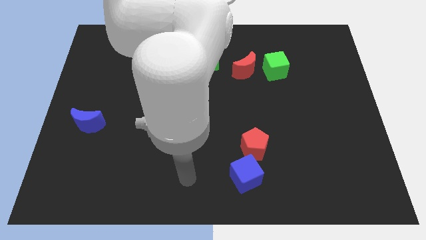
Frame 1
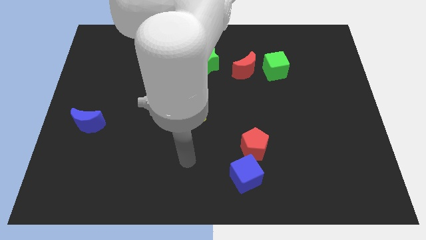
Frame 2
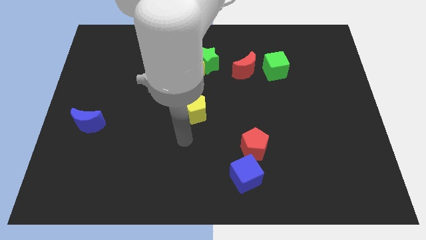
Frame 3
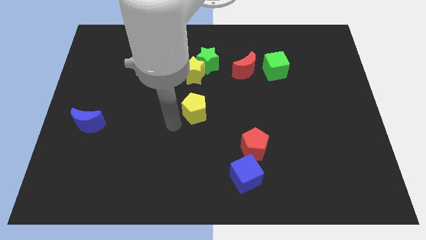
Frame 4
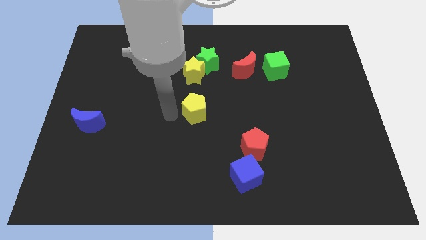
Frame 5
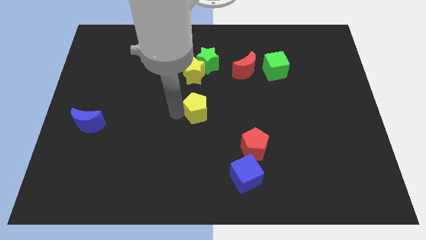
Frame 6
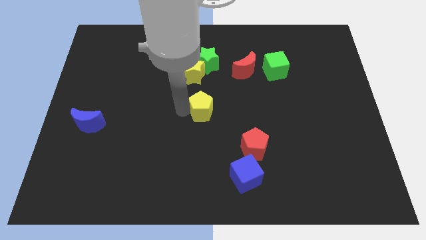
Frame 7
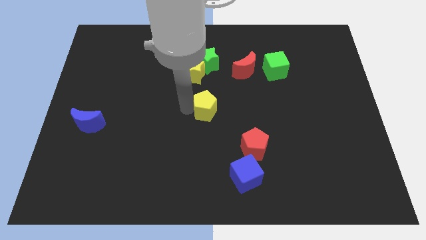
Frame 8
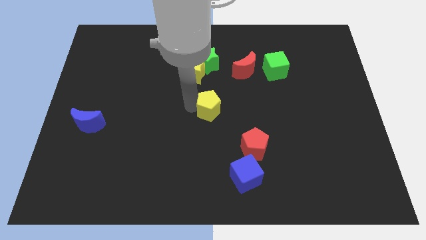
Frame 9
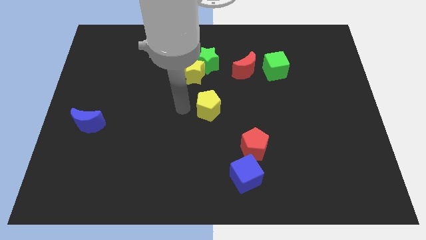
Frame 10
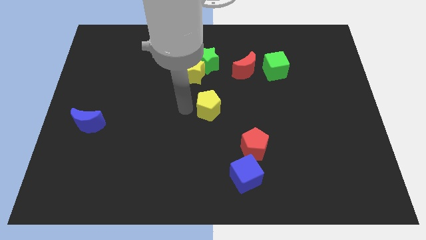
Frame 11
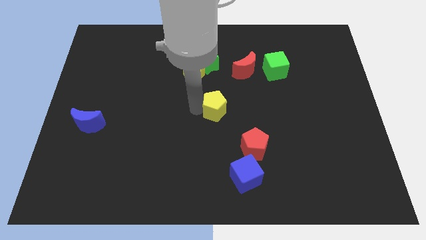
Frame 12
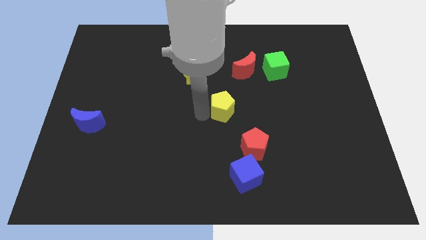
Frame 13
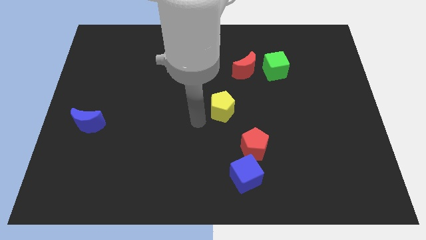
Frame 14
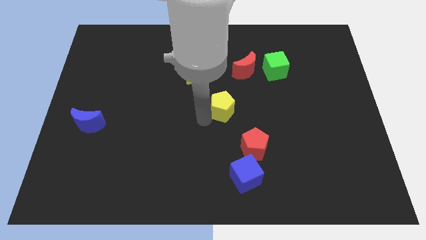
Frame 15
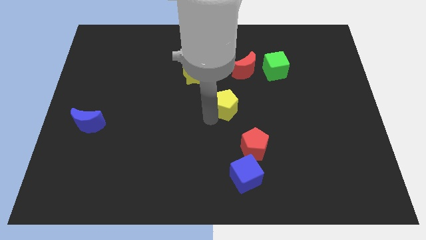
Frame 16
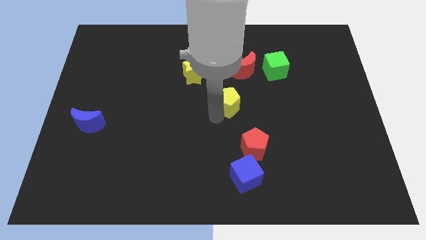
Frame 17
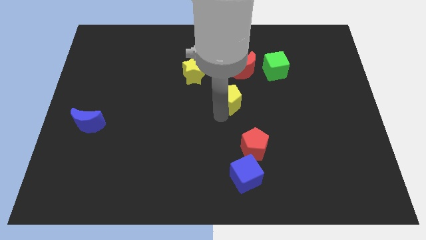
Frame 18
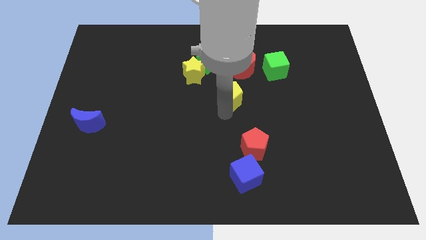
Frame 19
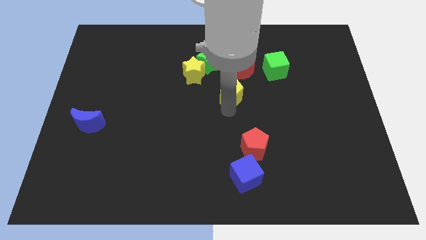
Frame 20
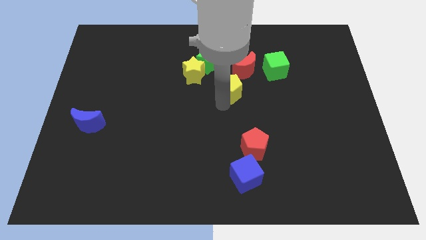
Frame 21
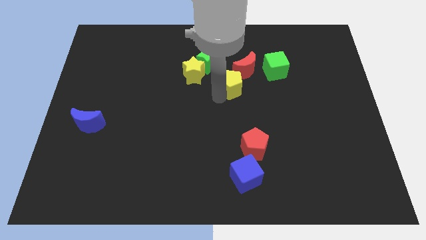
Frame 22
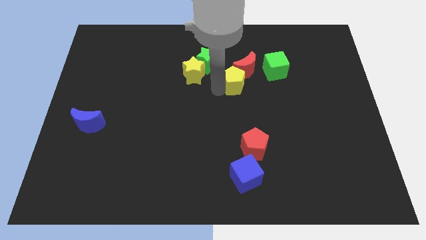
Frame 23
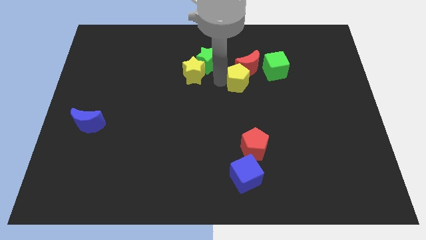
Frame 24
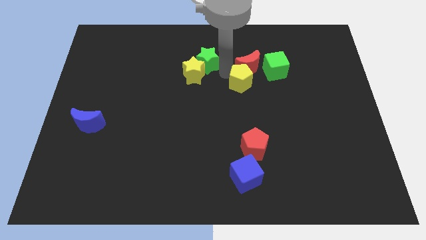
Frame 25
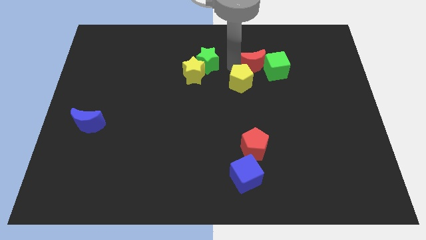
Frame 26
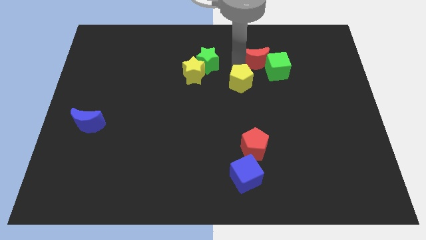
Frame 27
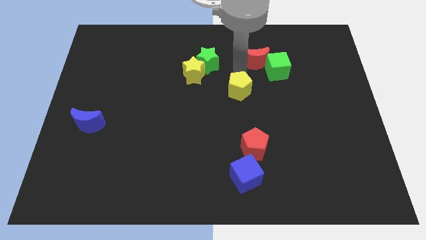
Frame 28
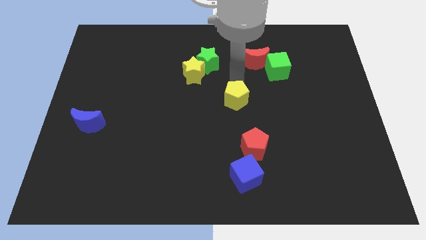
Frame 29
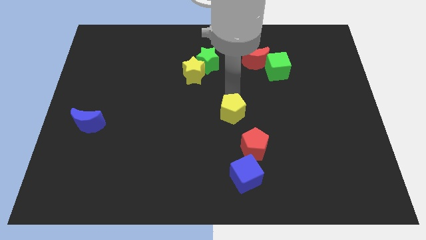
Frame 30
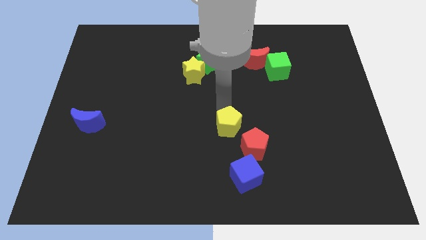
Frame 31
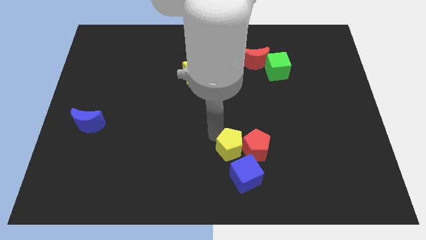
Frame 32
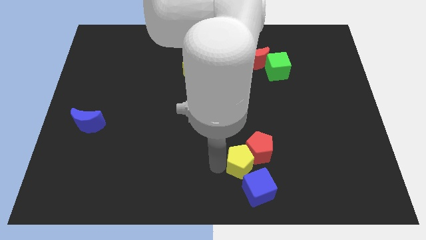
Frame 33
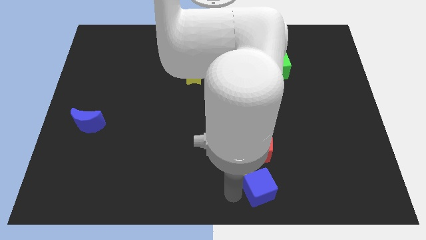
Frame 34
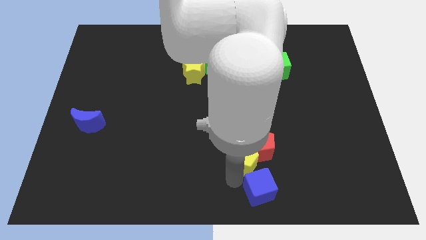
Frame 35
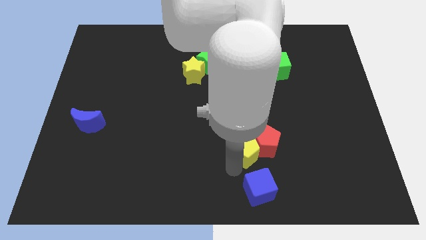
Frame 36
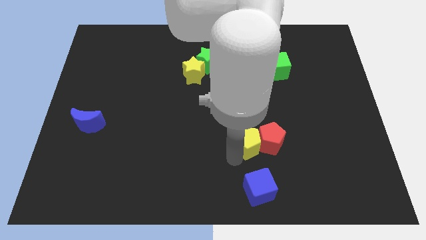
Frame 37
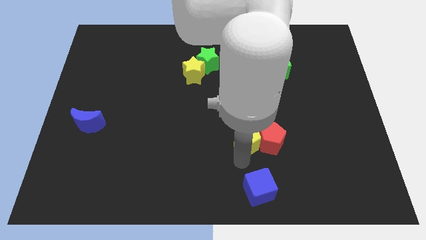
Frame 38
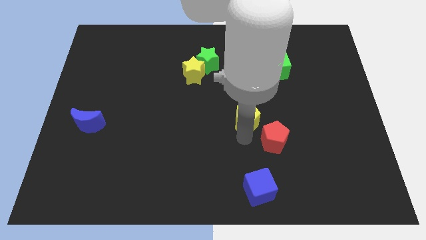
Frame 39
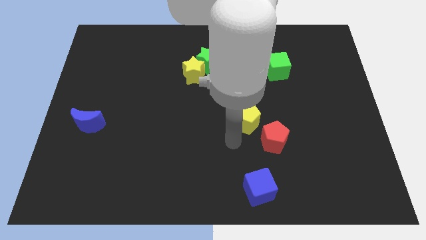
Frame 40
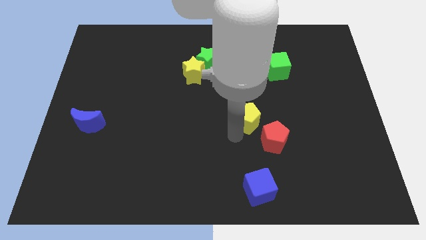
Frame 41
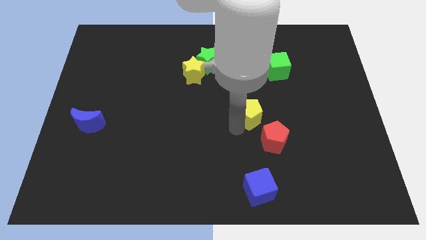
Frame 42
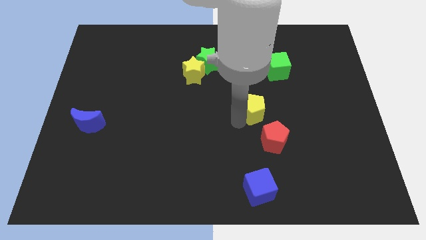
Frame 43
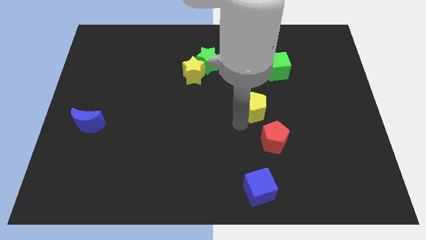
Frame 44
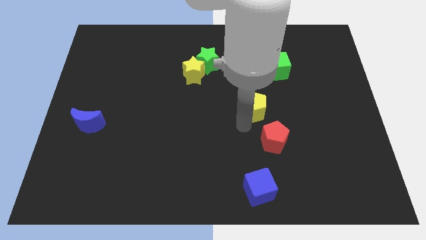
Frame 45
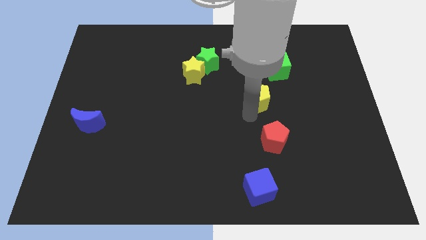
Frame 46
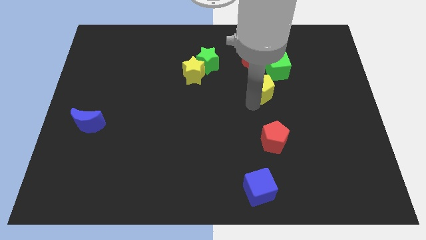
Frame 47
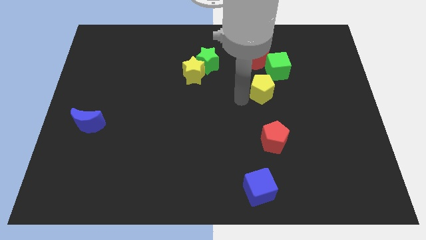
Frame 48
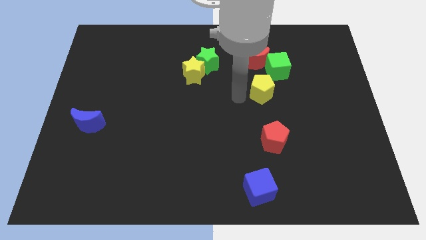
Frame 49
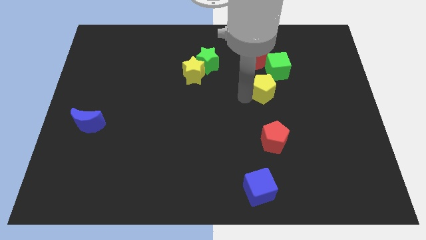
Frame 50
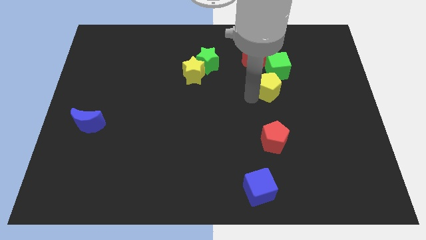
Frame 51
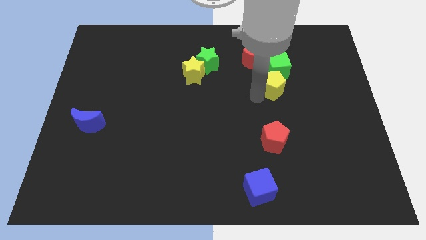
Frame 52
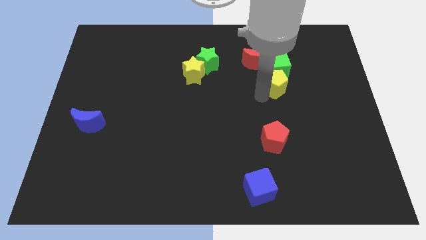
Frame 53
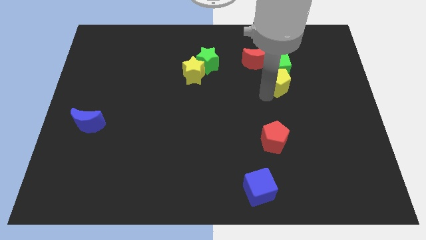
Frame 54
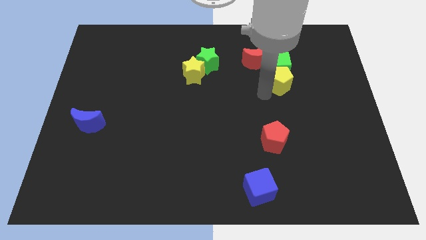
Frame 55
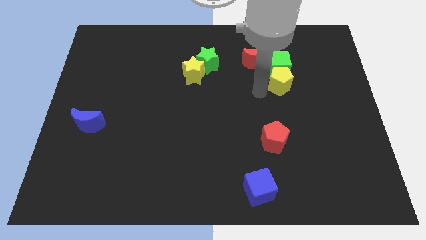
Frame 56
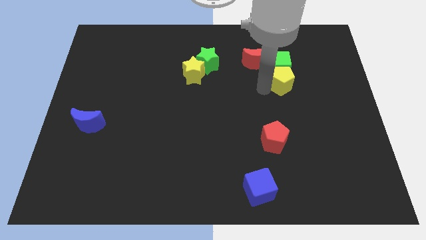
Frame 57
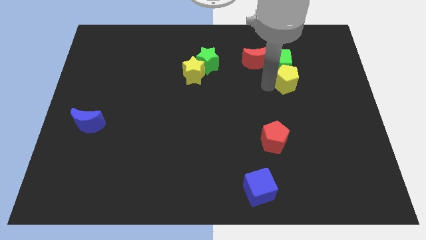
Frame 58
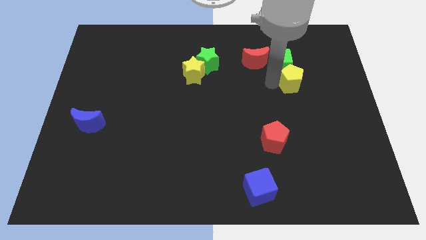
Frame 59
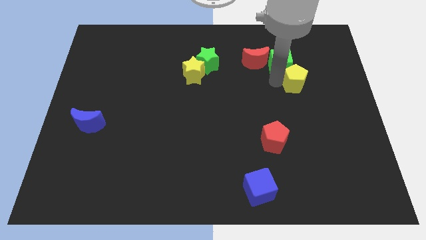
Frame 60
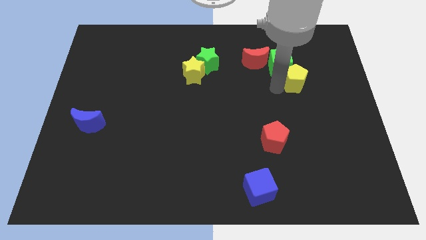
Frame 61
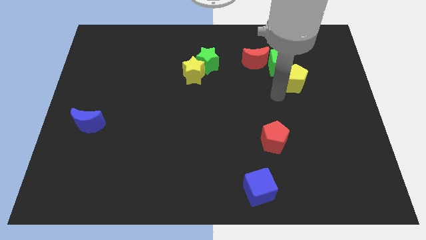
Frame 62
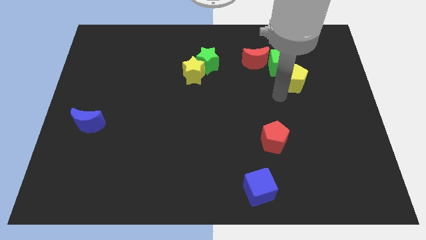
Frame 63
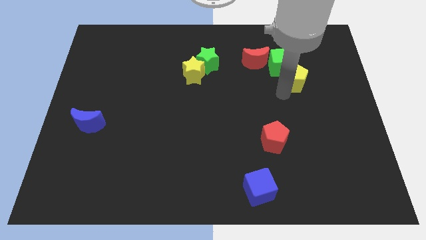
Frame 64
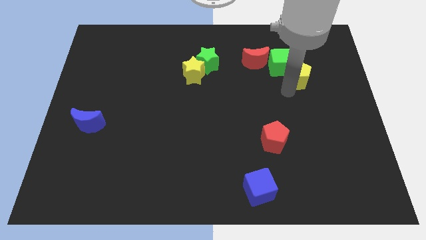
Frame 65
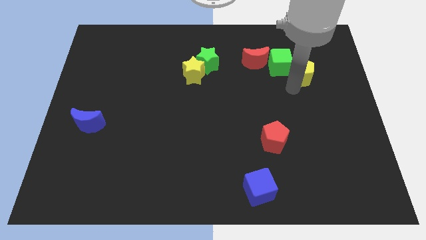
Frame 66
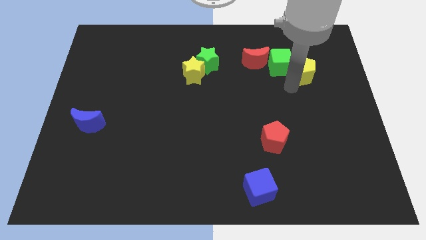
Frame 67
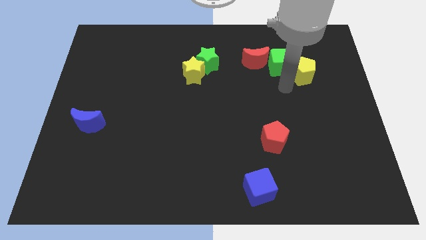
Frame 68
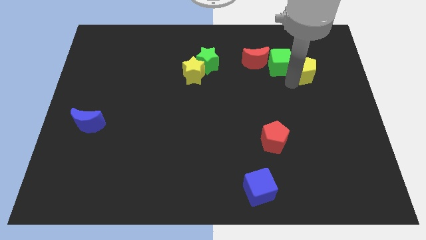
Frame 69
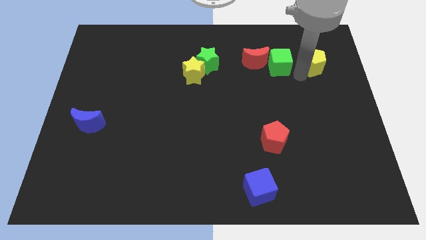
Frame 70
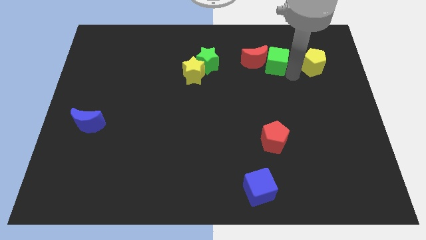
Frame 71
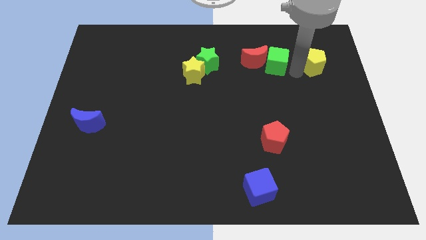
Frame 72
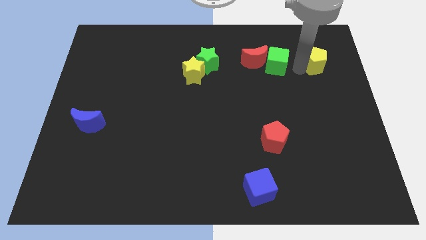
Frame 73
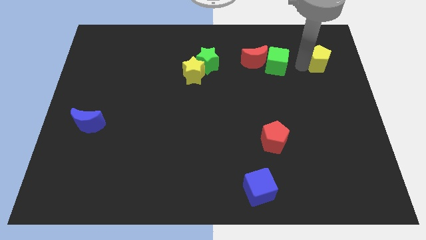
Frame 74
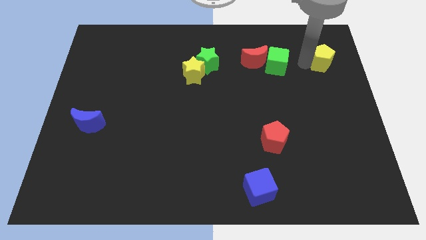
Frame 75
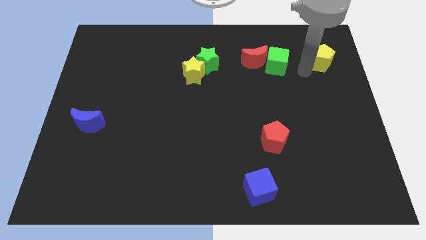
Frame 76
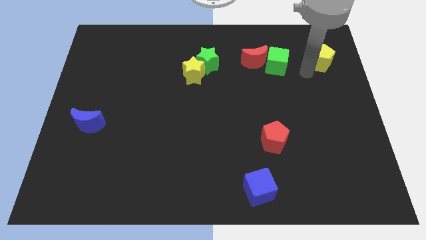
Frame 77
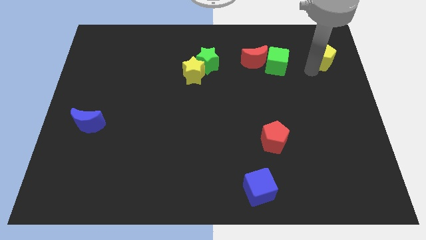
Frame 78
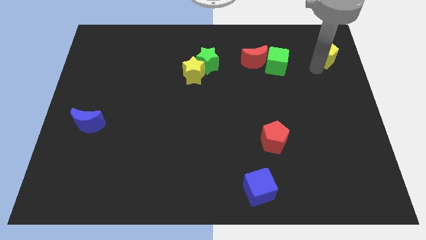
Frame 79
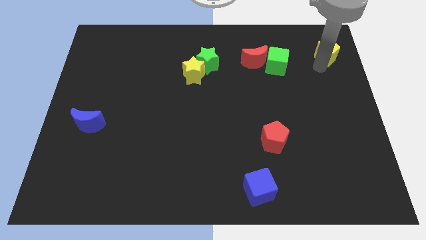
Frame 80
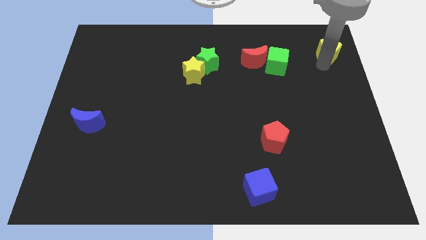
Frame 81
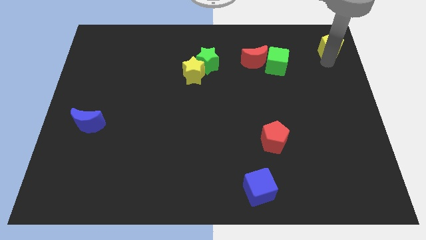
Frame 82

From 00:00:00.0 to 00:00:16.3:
push the yellow pentagon to the upper right corner
